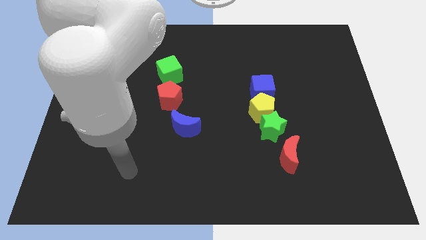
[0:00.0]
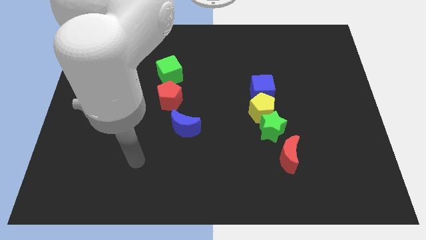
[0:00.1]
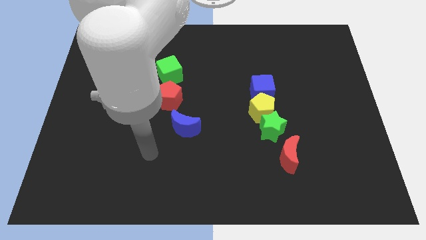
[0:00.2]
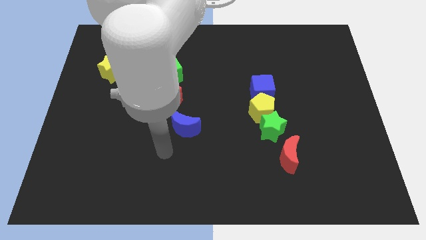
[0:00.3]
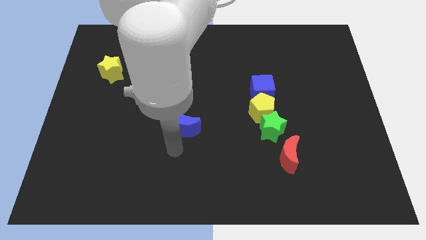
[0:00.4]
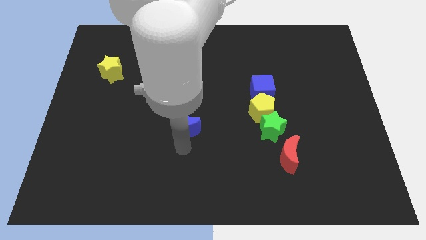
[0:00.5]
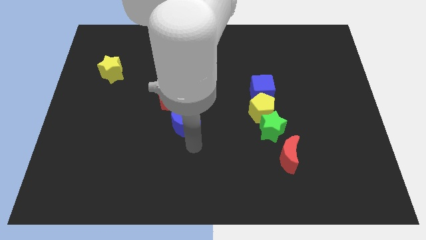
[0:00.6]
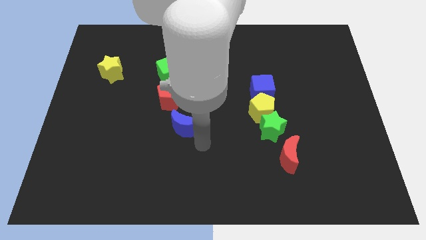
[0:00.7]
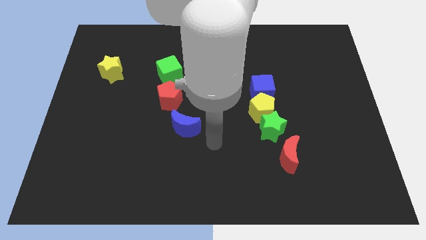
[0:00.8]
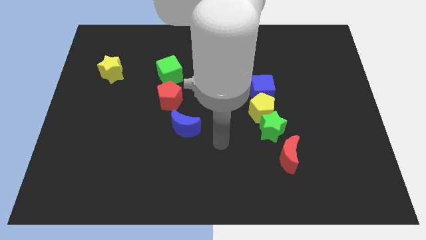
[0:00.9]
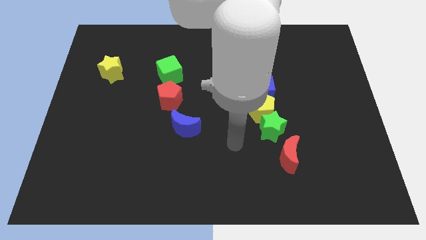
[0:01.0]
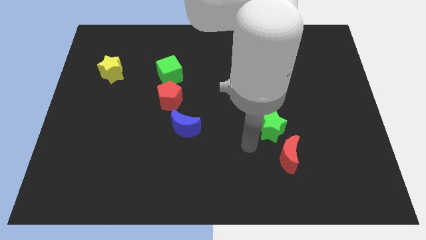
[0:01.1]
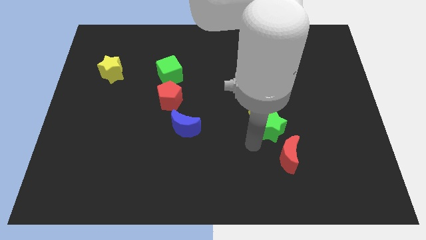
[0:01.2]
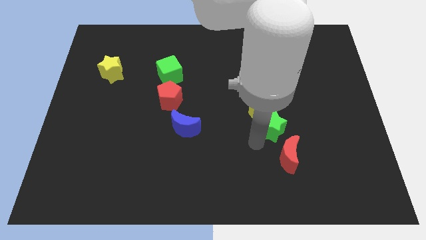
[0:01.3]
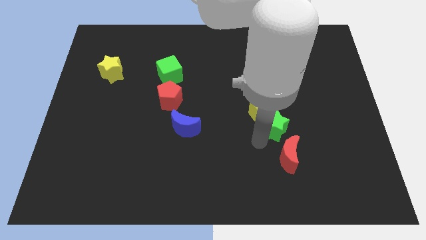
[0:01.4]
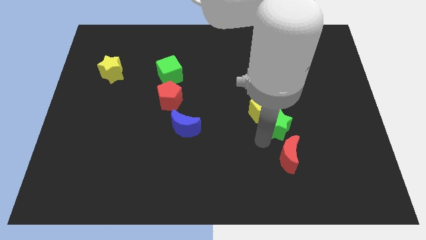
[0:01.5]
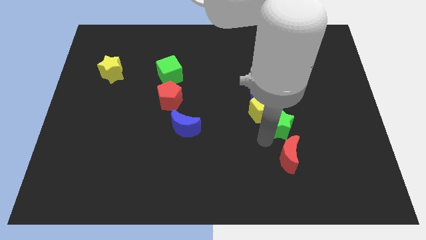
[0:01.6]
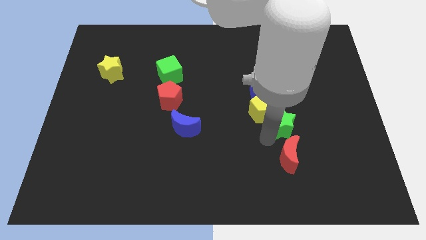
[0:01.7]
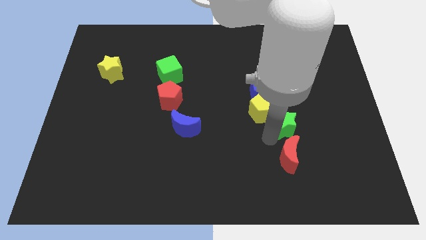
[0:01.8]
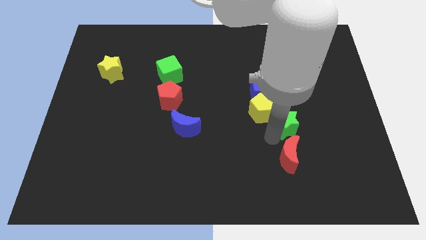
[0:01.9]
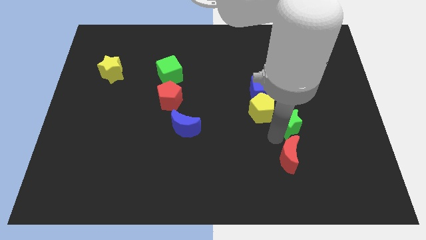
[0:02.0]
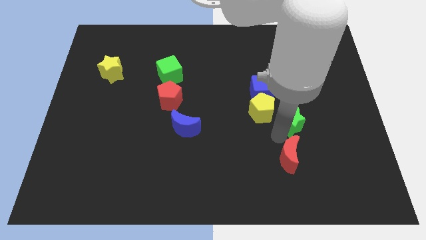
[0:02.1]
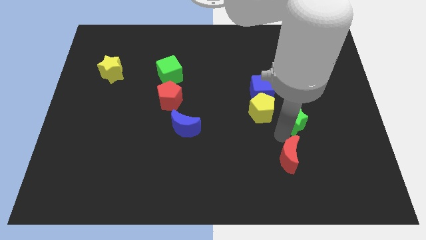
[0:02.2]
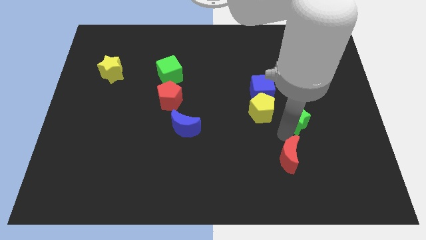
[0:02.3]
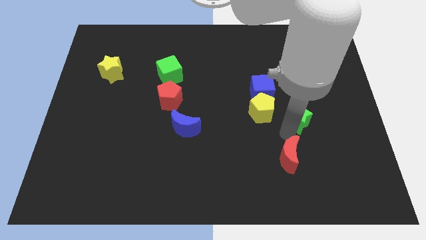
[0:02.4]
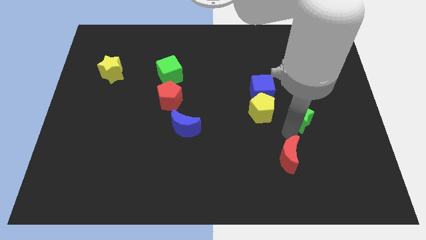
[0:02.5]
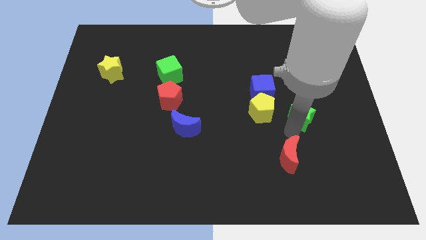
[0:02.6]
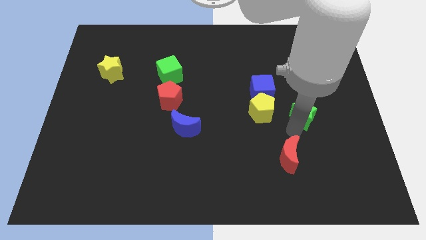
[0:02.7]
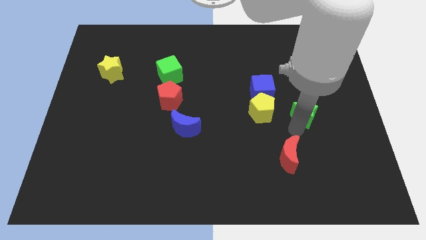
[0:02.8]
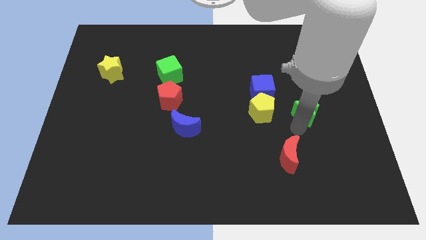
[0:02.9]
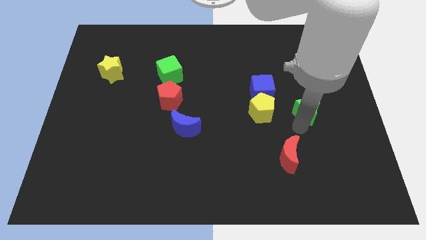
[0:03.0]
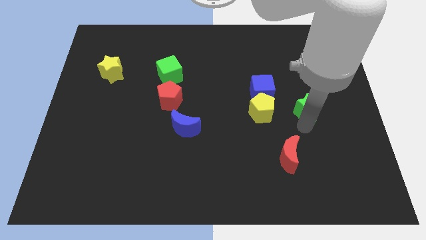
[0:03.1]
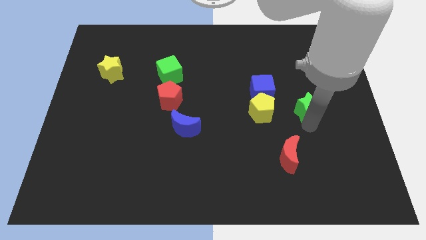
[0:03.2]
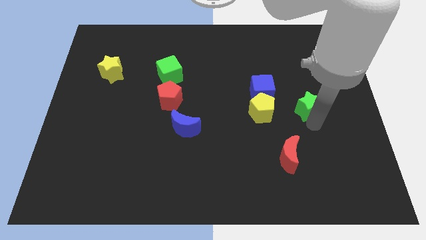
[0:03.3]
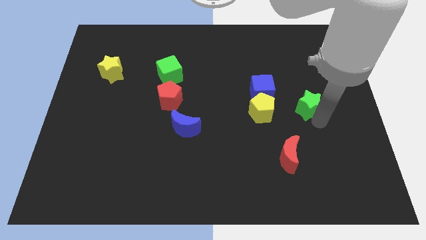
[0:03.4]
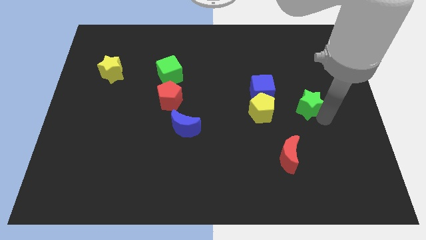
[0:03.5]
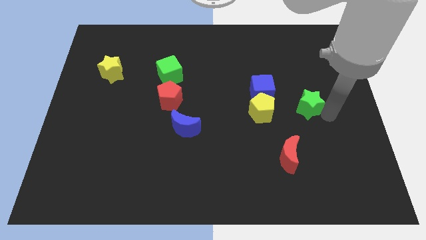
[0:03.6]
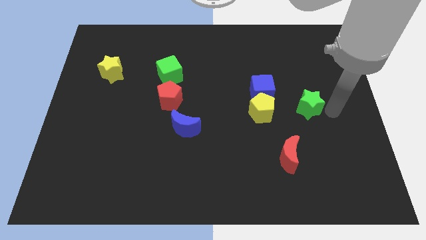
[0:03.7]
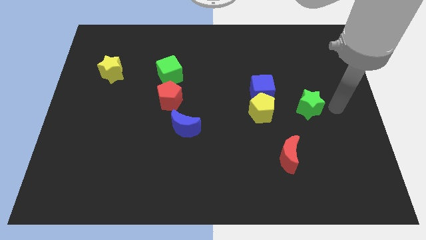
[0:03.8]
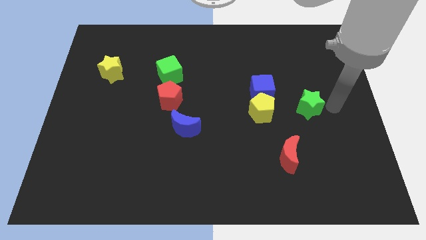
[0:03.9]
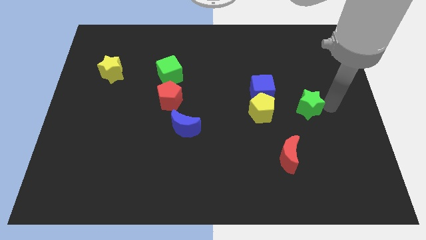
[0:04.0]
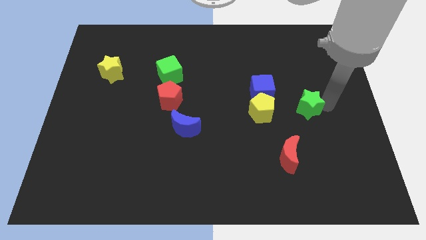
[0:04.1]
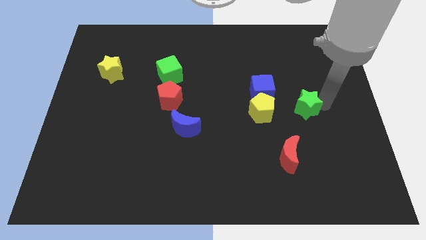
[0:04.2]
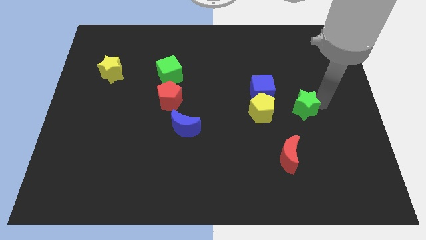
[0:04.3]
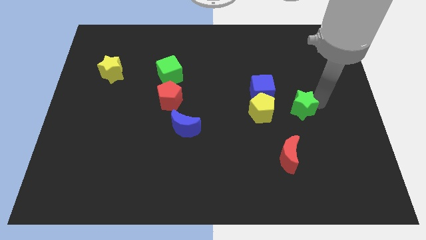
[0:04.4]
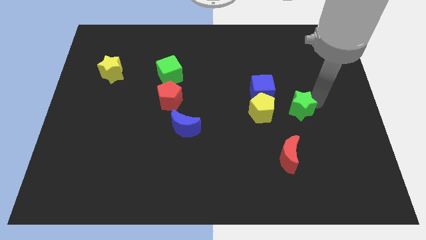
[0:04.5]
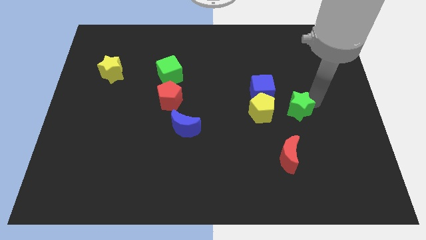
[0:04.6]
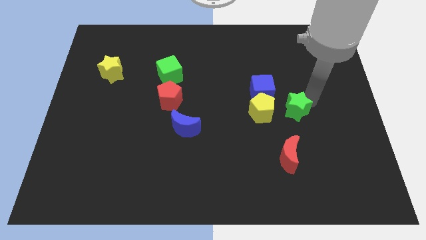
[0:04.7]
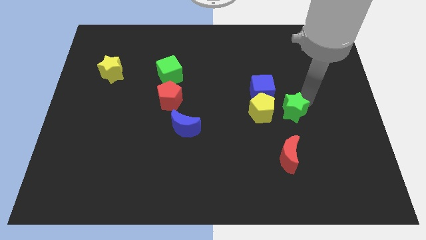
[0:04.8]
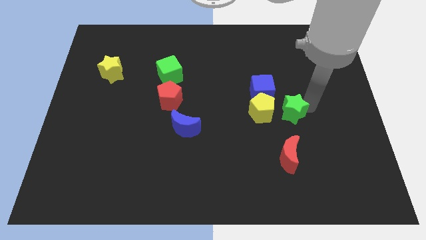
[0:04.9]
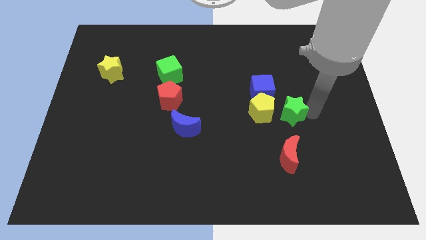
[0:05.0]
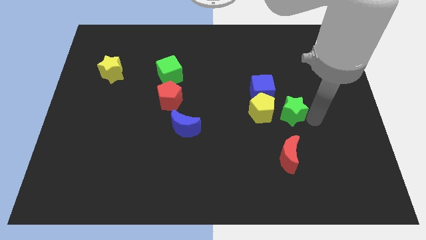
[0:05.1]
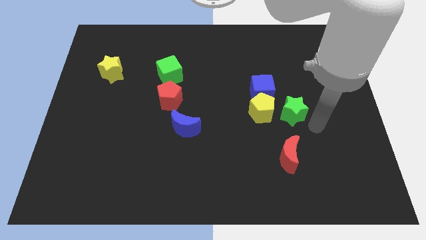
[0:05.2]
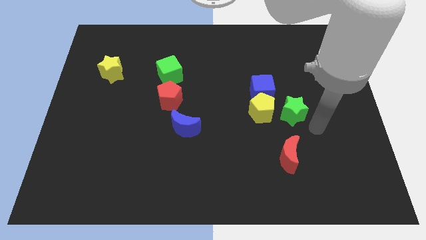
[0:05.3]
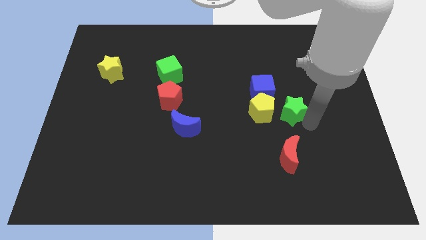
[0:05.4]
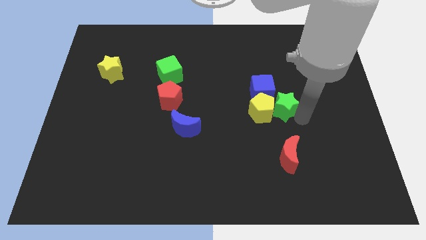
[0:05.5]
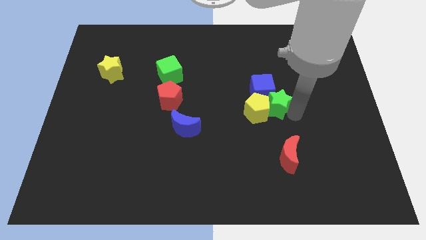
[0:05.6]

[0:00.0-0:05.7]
slide the green star next to the blue cube
